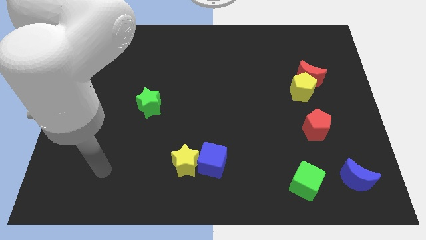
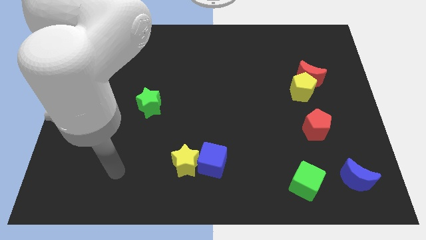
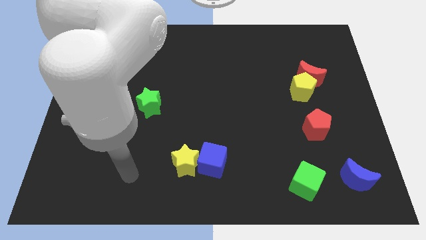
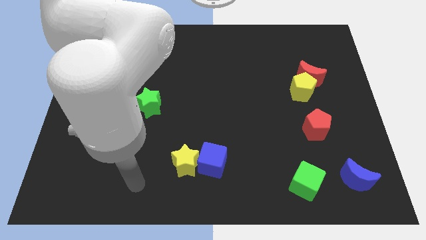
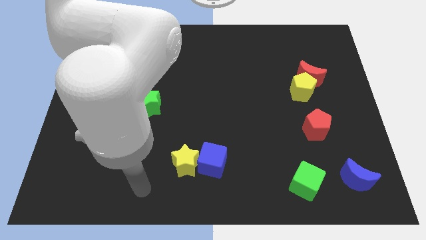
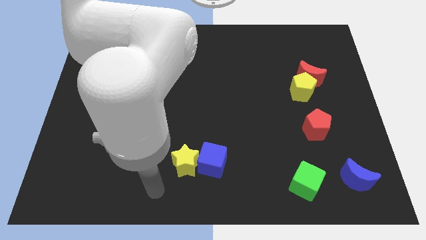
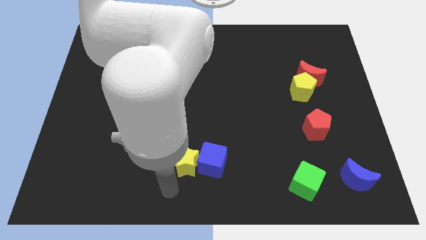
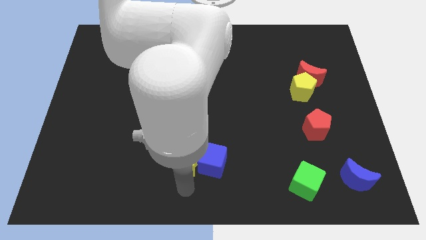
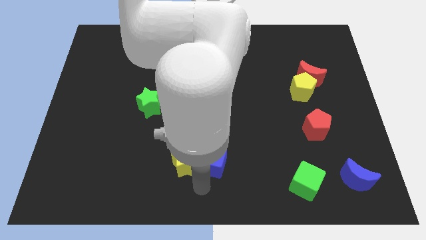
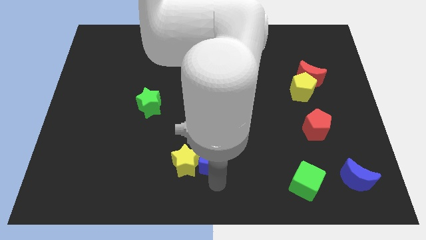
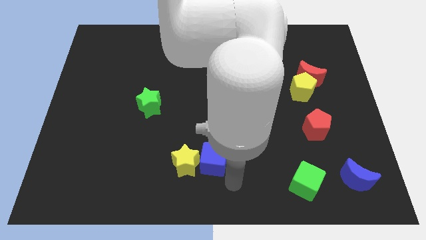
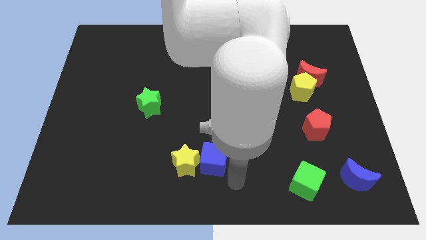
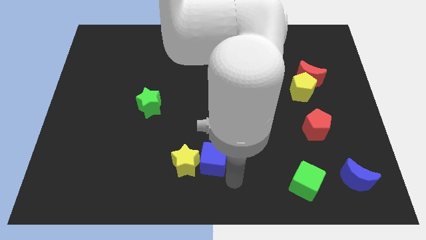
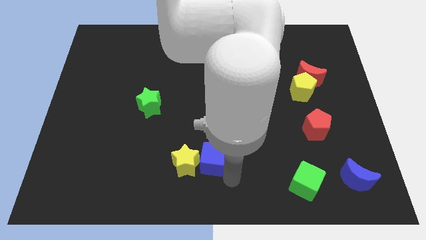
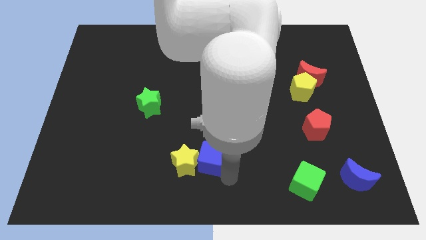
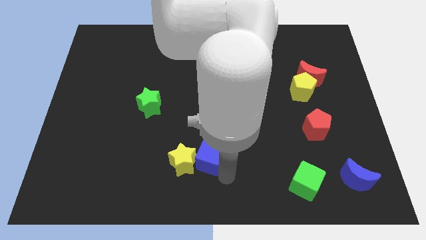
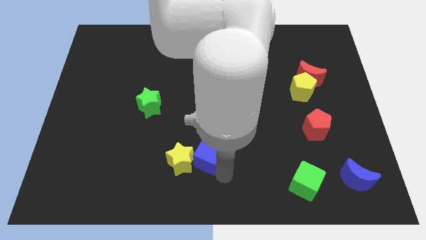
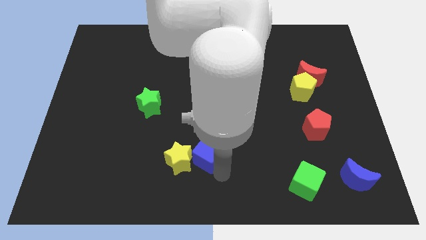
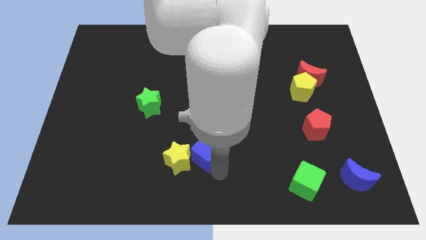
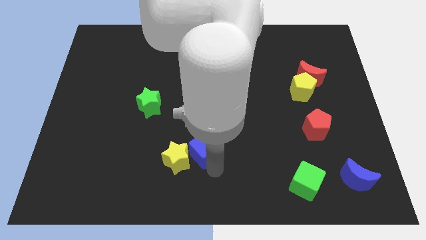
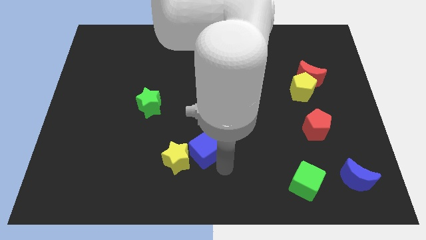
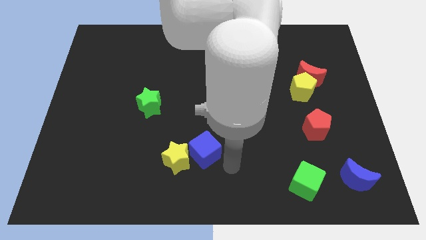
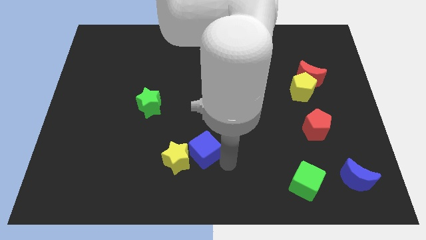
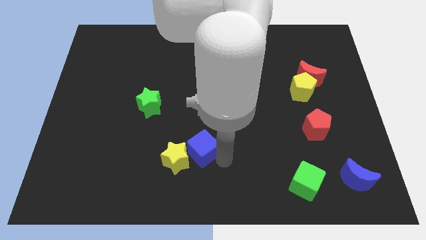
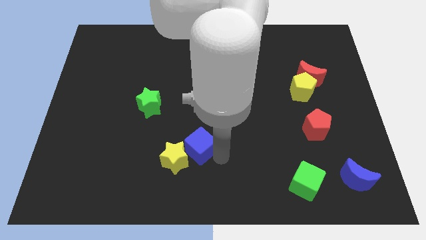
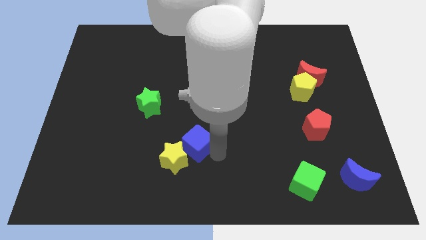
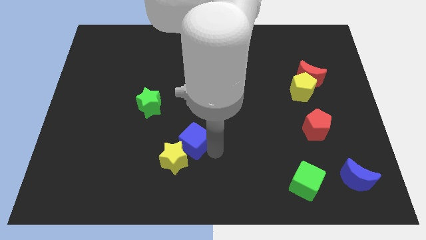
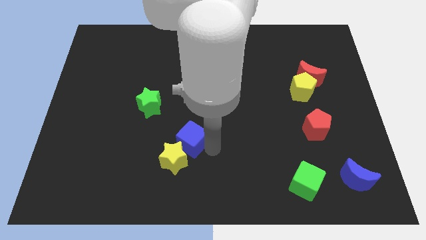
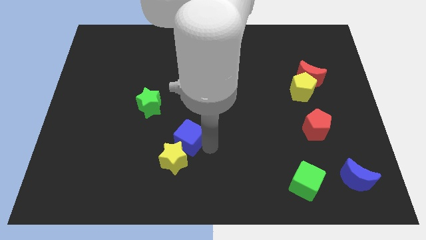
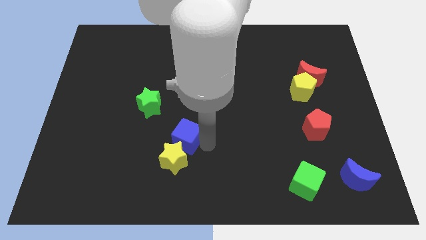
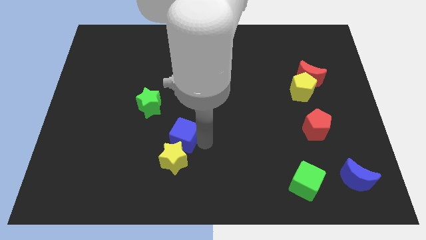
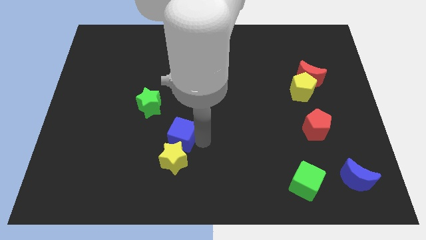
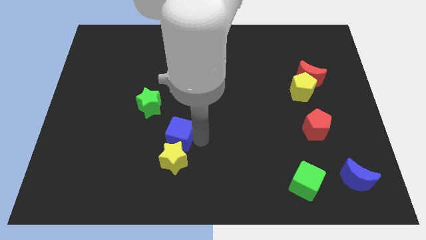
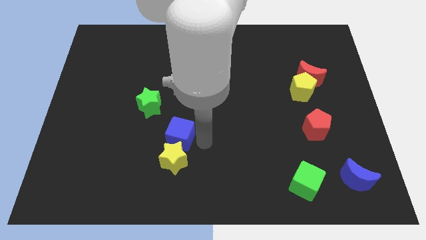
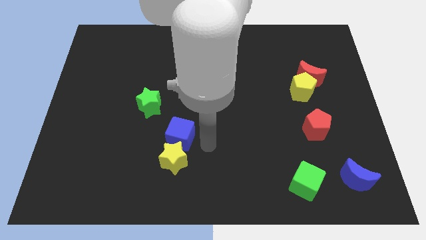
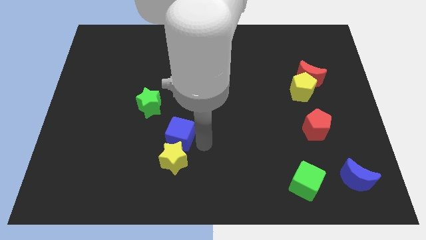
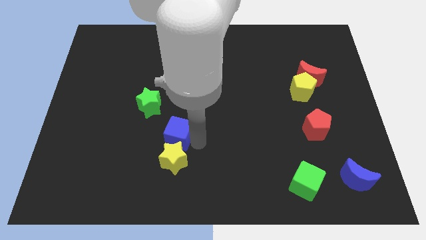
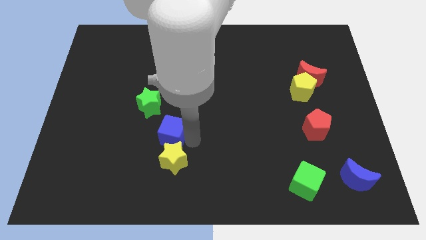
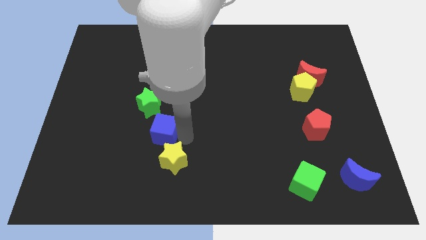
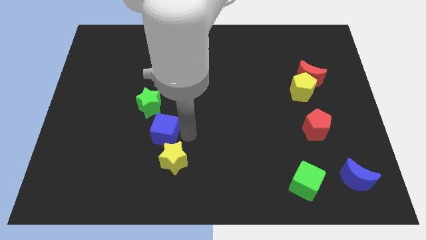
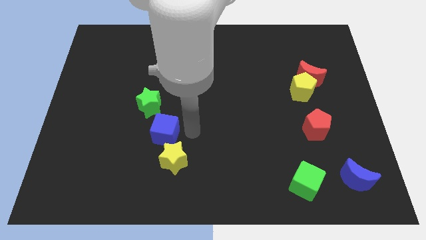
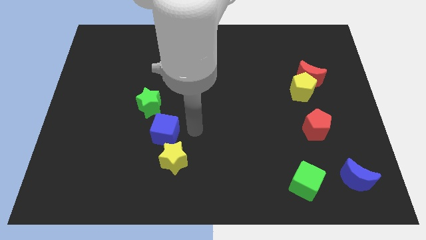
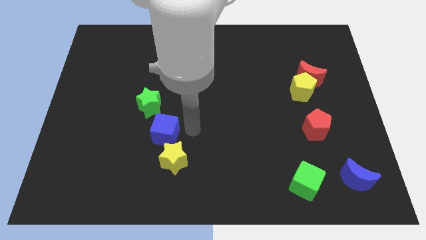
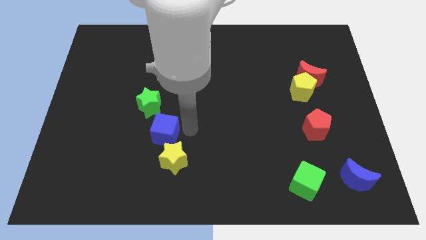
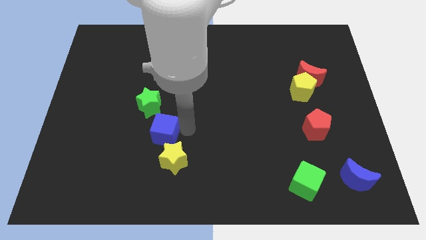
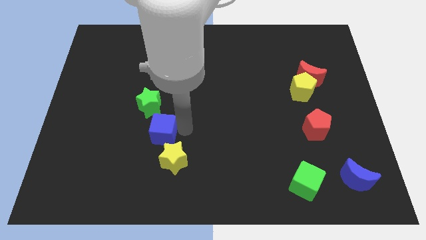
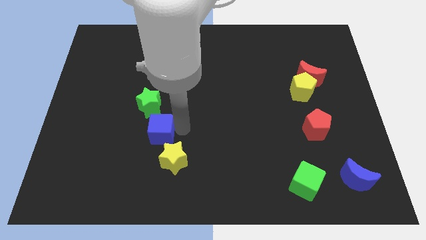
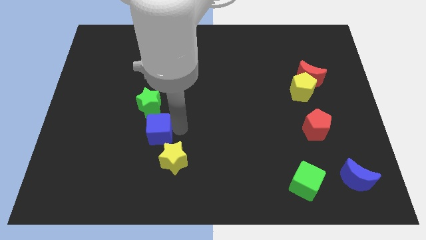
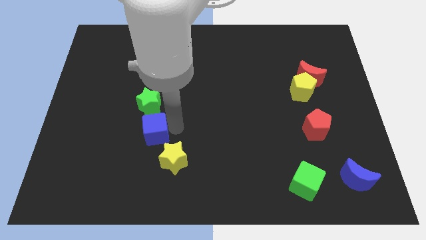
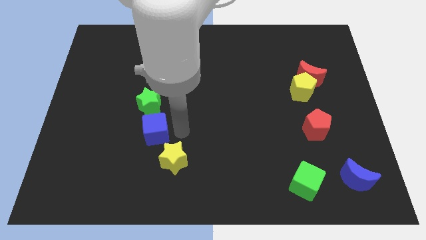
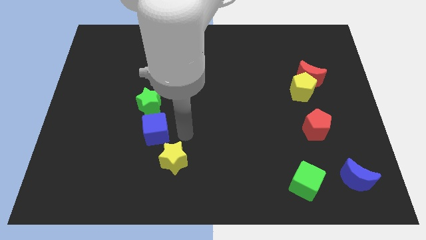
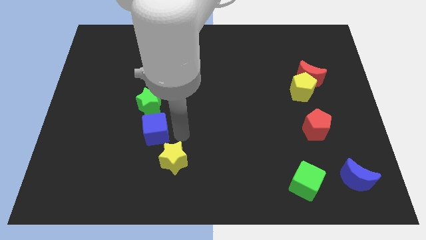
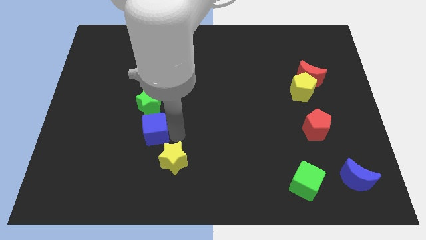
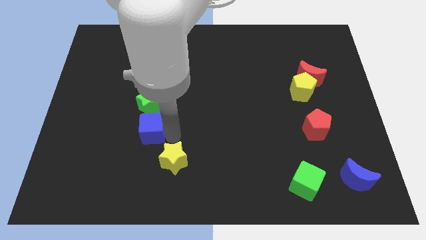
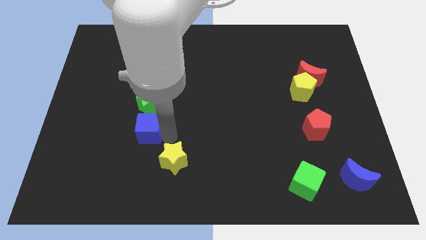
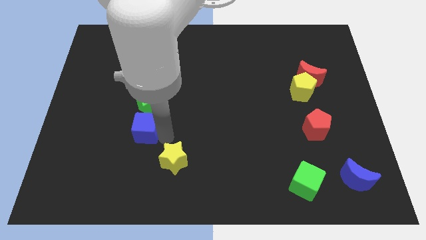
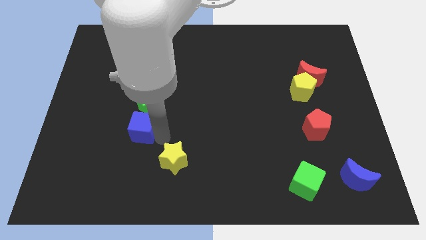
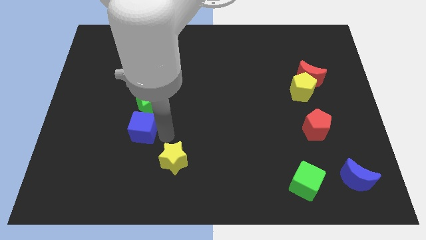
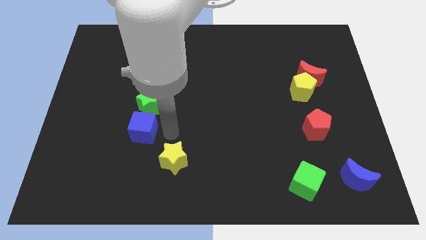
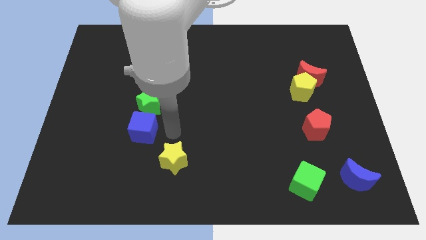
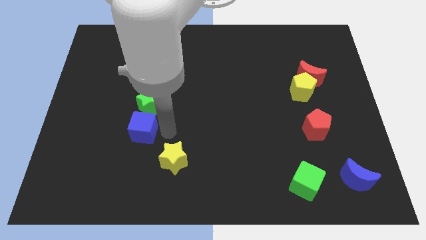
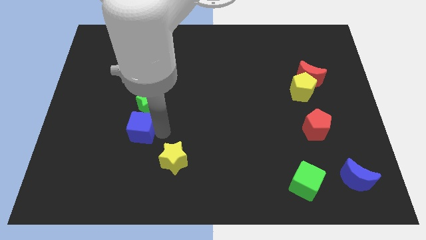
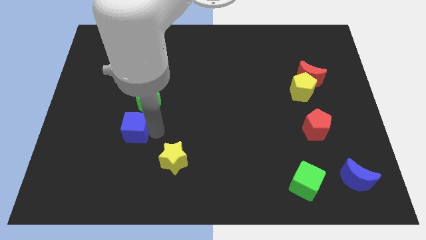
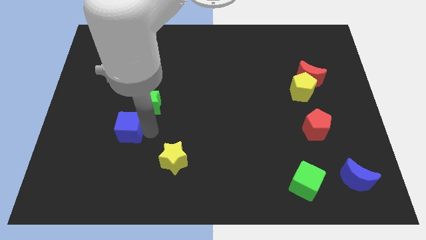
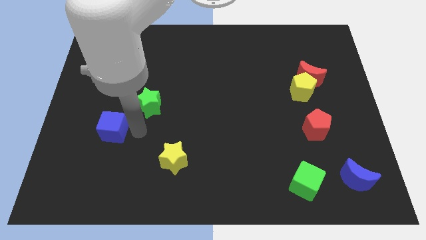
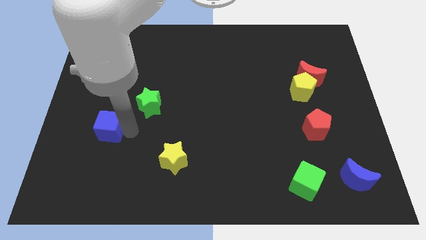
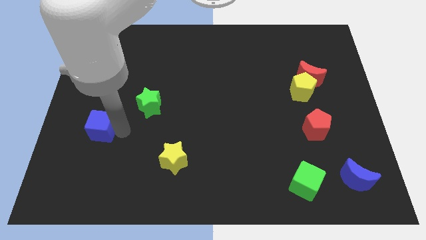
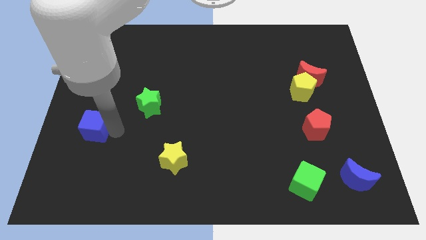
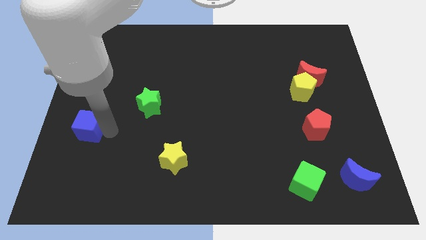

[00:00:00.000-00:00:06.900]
move the blue cube to the left side of the board
